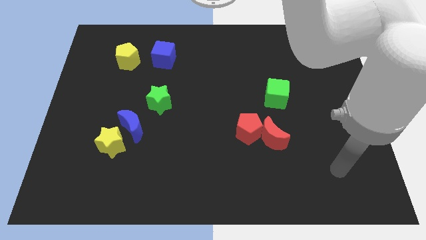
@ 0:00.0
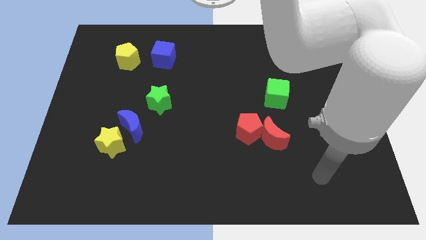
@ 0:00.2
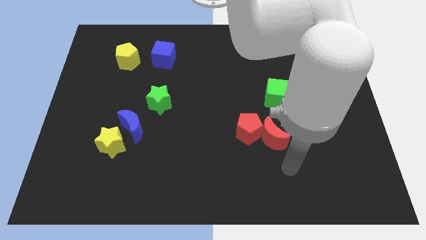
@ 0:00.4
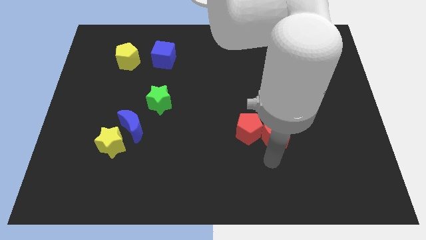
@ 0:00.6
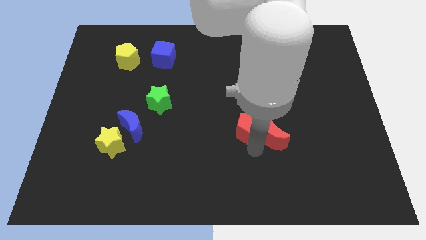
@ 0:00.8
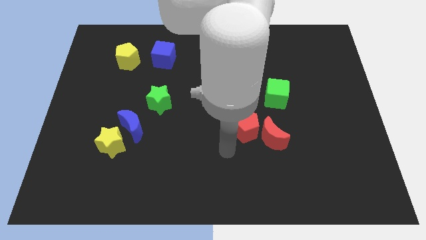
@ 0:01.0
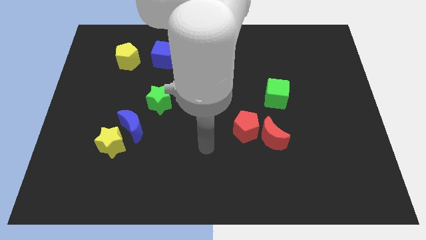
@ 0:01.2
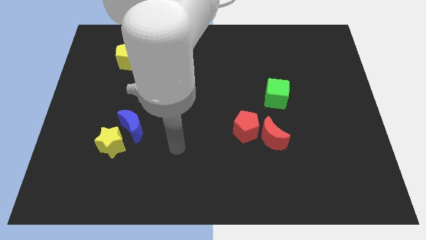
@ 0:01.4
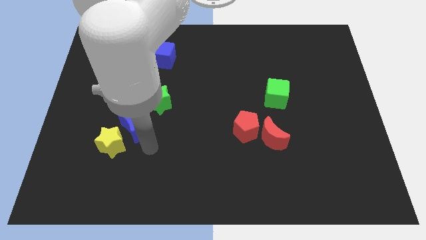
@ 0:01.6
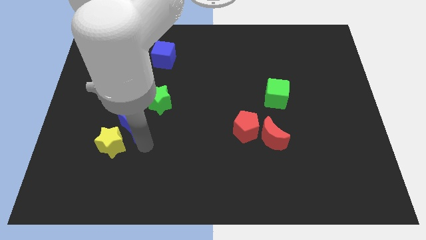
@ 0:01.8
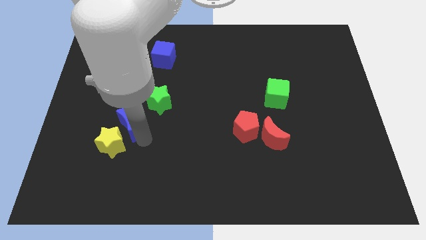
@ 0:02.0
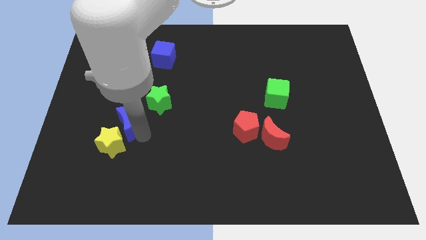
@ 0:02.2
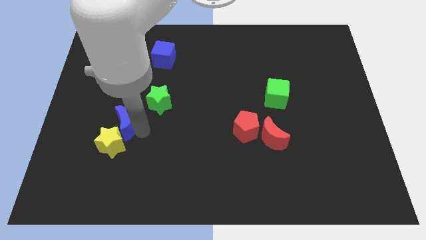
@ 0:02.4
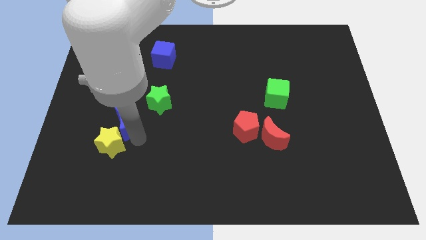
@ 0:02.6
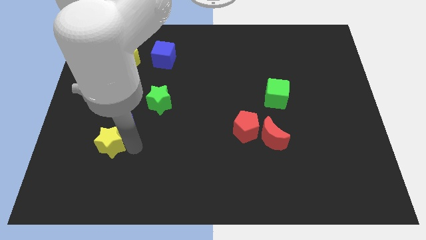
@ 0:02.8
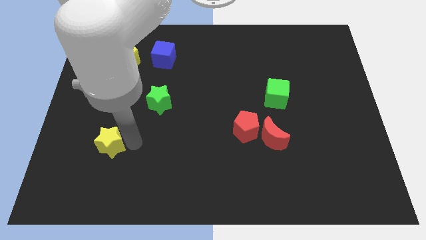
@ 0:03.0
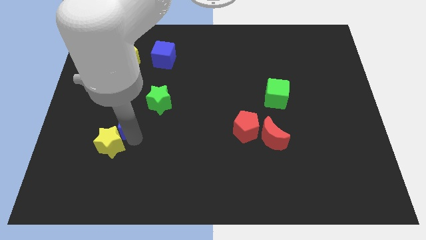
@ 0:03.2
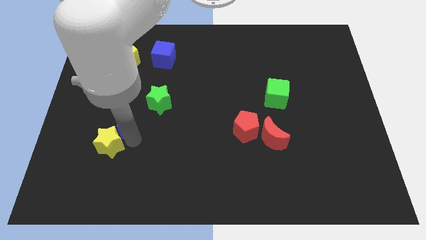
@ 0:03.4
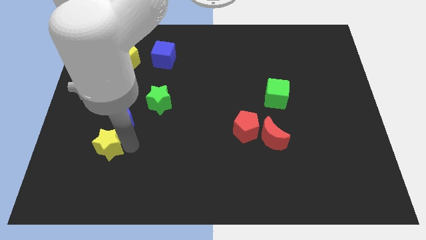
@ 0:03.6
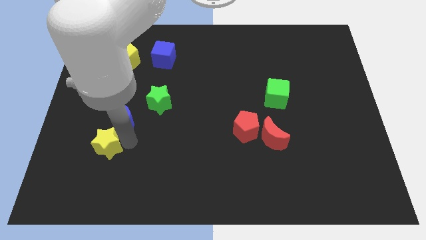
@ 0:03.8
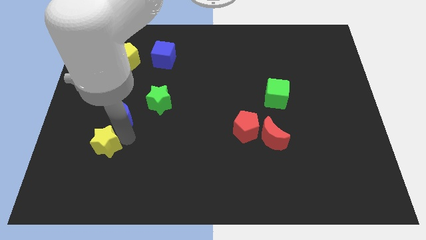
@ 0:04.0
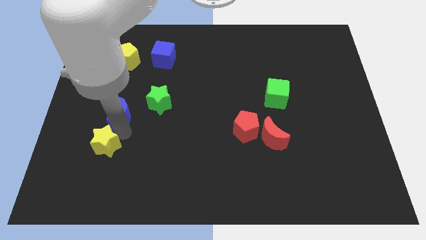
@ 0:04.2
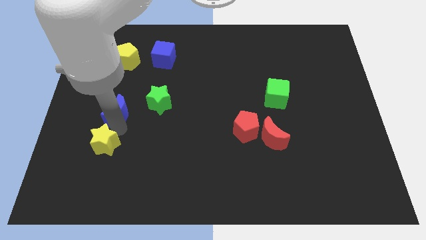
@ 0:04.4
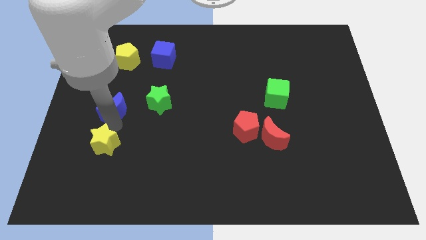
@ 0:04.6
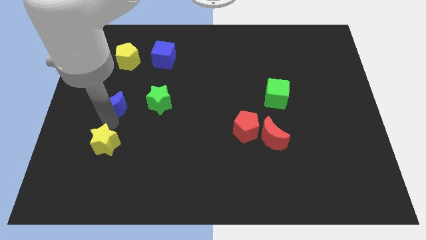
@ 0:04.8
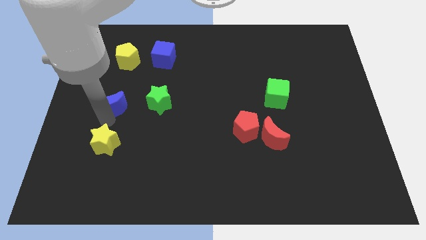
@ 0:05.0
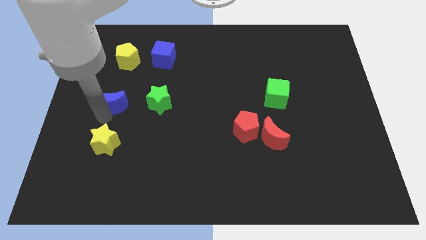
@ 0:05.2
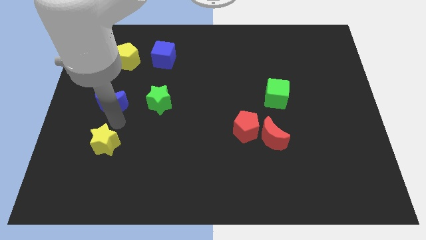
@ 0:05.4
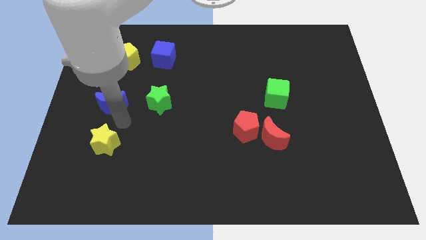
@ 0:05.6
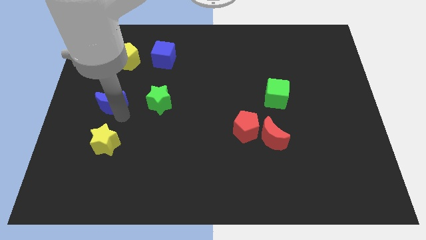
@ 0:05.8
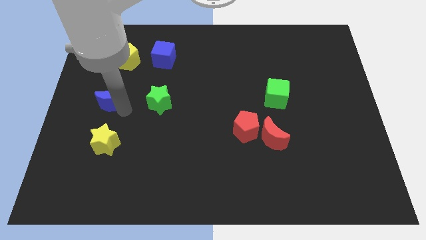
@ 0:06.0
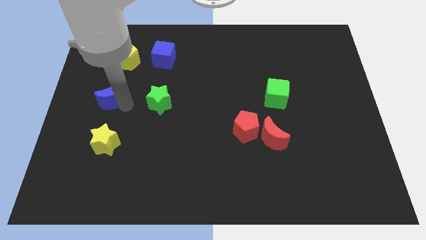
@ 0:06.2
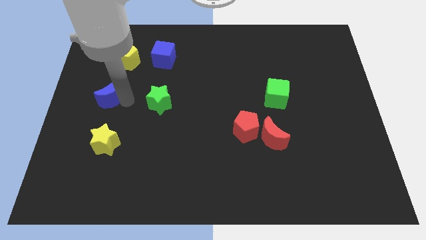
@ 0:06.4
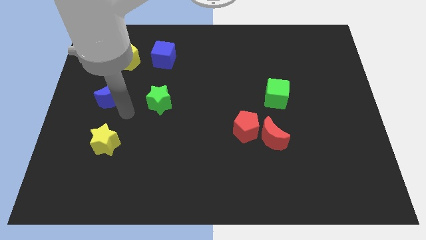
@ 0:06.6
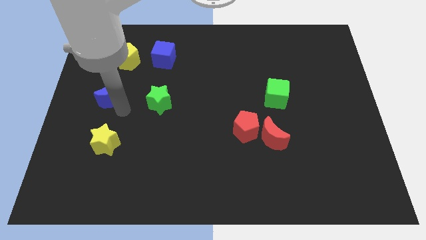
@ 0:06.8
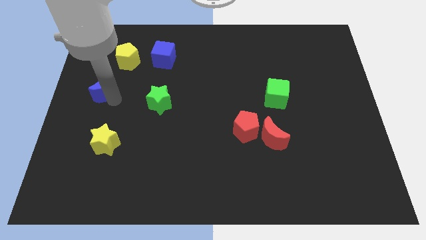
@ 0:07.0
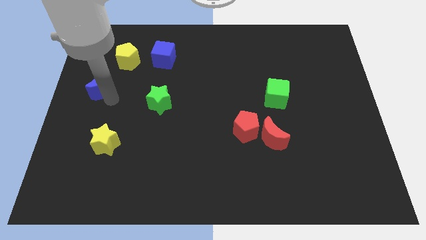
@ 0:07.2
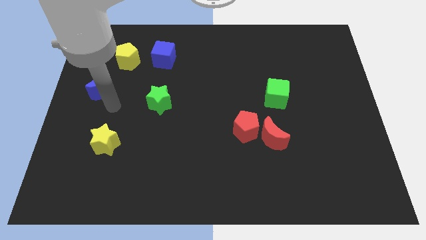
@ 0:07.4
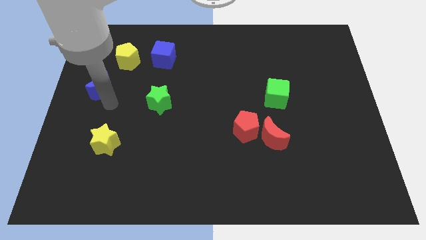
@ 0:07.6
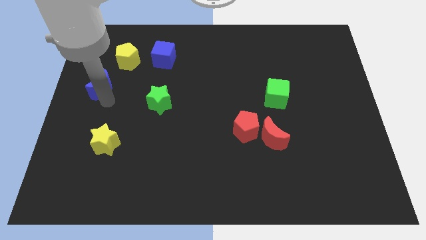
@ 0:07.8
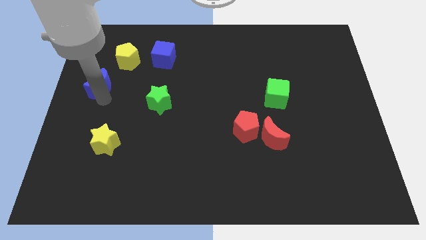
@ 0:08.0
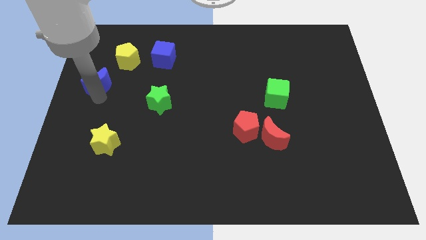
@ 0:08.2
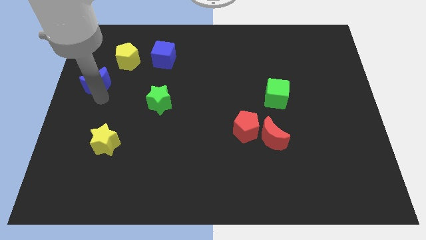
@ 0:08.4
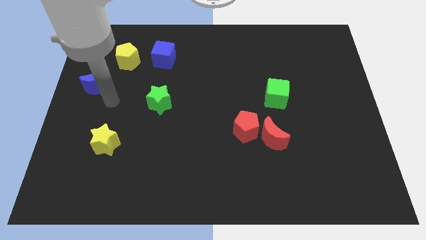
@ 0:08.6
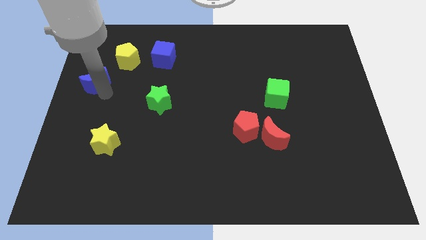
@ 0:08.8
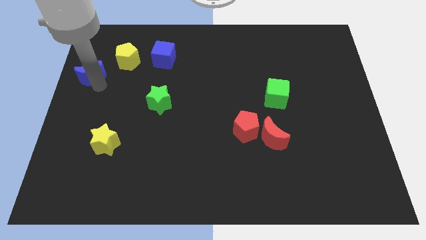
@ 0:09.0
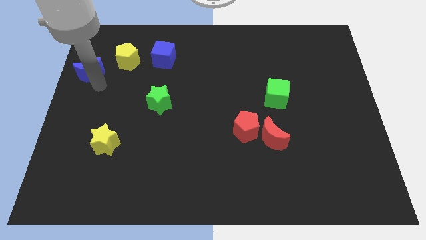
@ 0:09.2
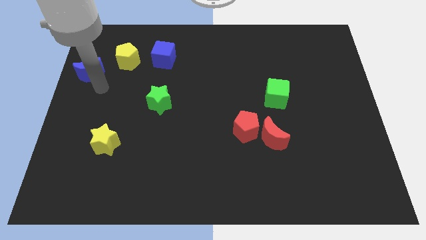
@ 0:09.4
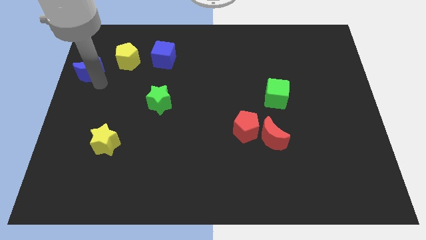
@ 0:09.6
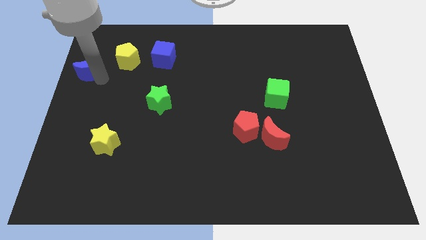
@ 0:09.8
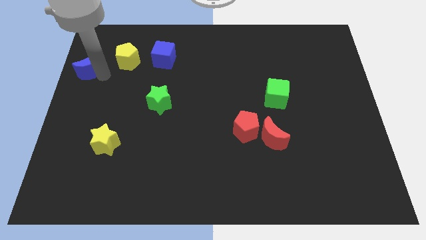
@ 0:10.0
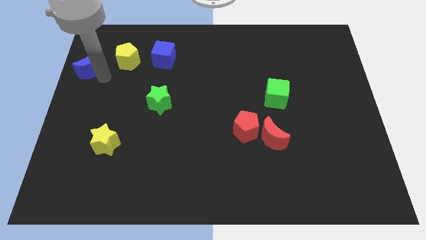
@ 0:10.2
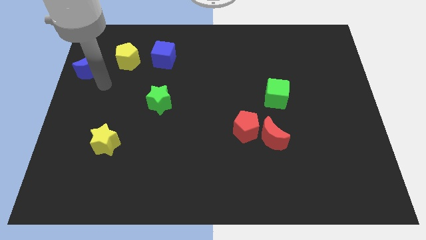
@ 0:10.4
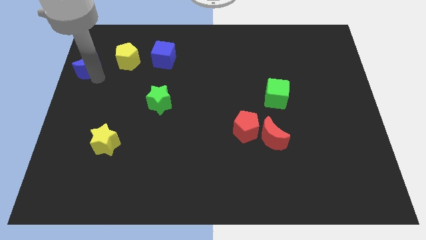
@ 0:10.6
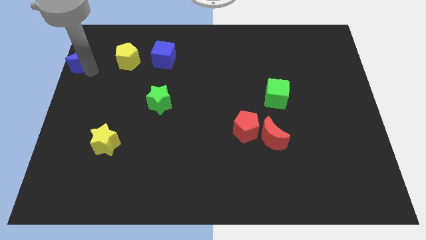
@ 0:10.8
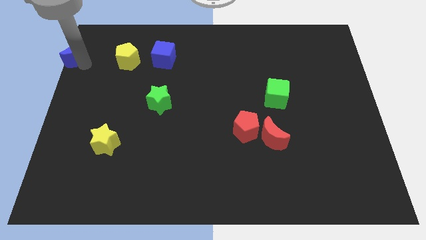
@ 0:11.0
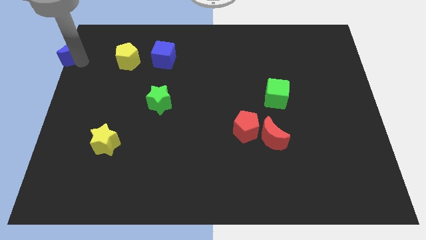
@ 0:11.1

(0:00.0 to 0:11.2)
slide the blue moon to the upper left corner

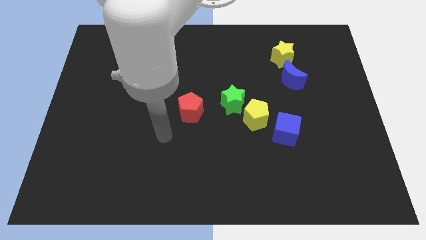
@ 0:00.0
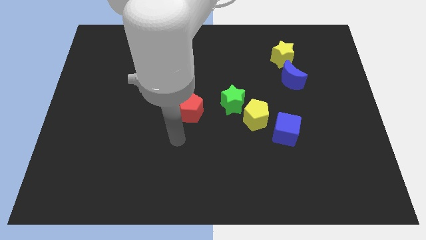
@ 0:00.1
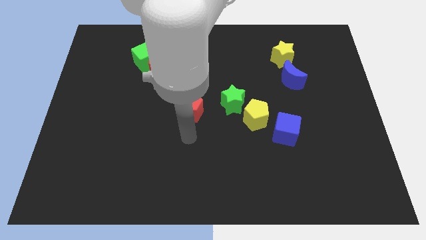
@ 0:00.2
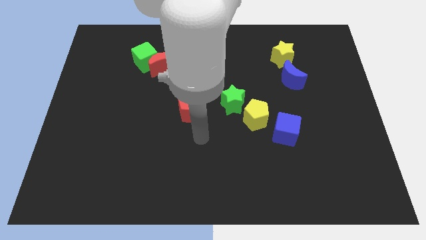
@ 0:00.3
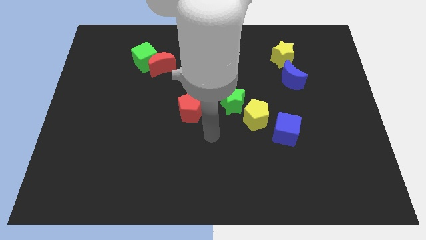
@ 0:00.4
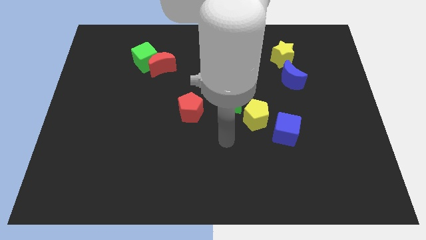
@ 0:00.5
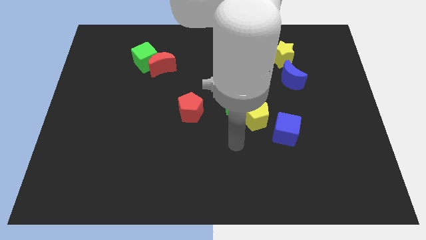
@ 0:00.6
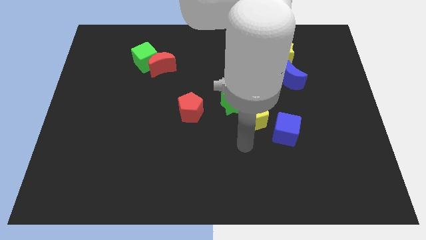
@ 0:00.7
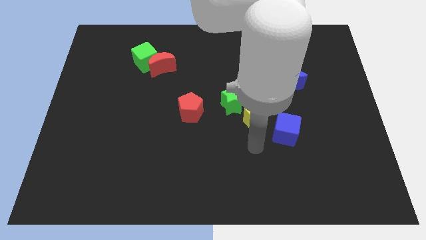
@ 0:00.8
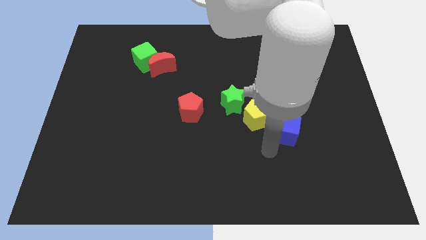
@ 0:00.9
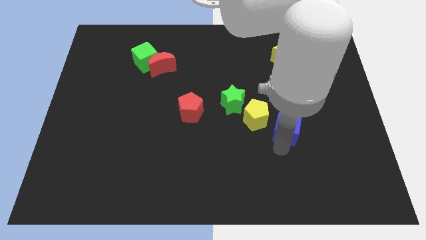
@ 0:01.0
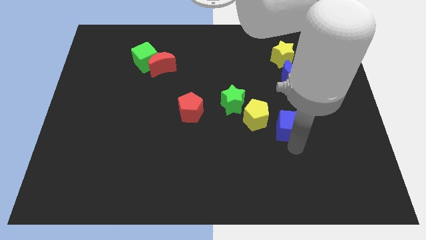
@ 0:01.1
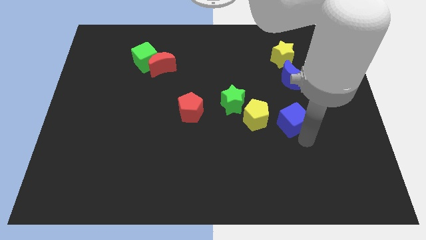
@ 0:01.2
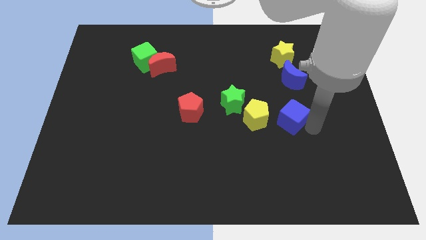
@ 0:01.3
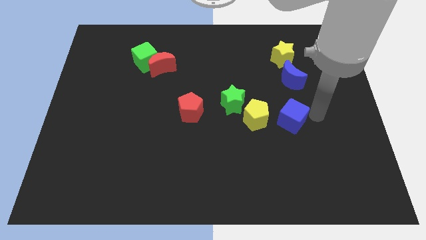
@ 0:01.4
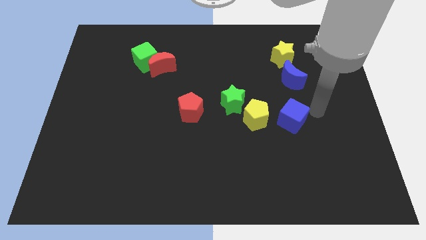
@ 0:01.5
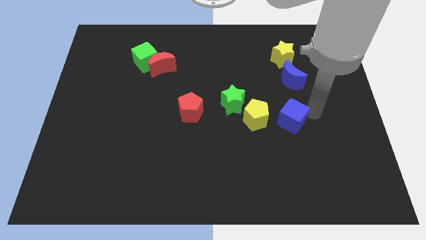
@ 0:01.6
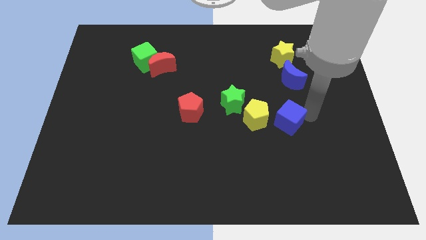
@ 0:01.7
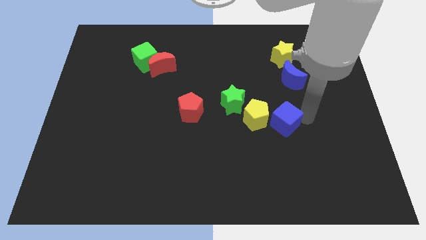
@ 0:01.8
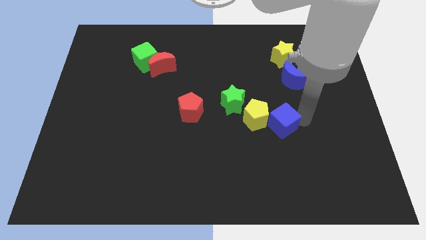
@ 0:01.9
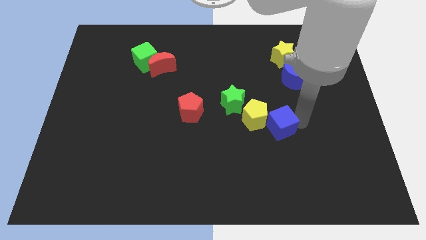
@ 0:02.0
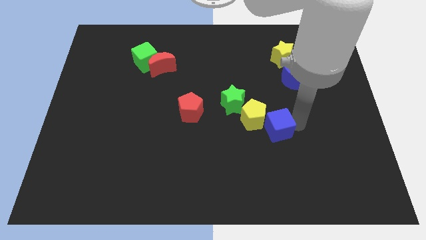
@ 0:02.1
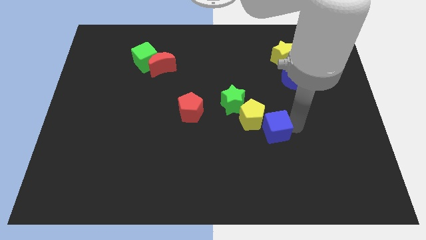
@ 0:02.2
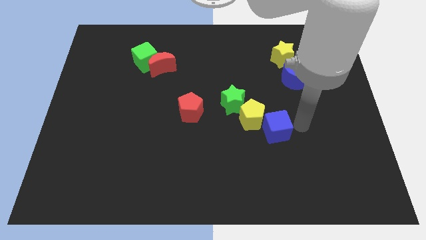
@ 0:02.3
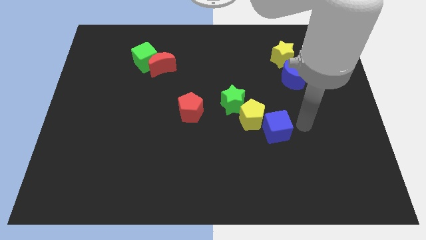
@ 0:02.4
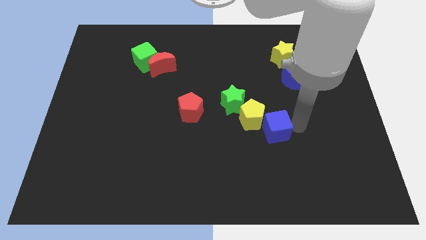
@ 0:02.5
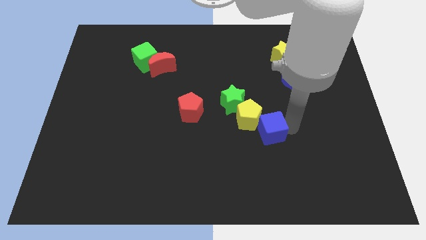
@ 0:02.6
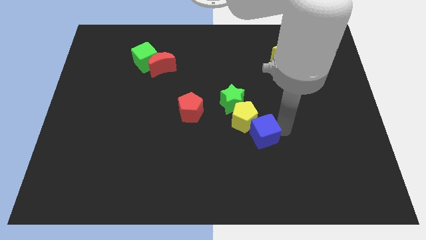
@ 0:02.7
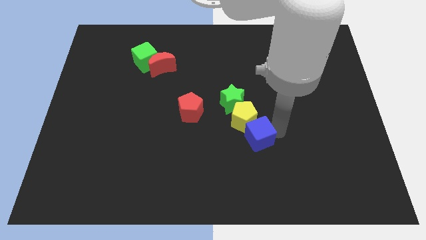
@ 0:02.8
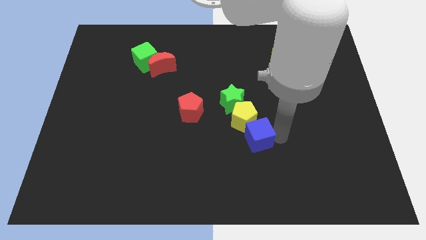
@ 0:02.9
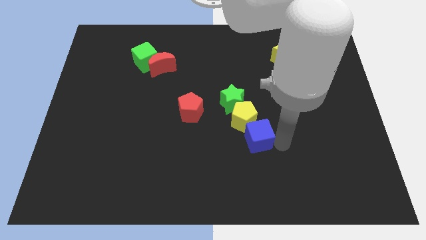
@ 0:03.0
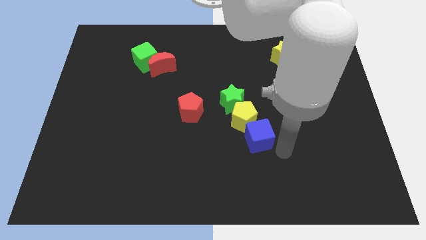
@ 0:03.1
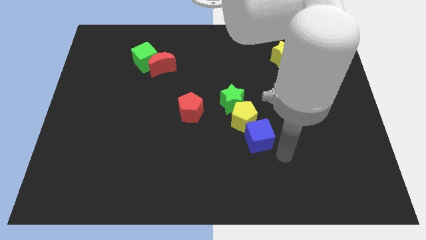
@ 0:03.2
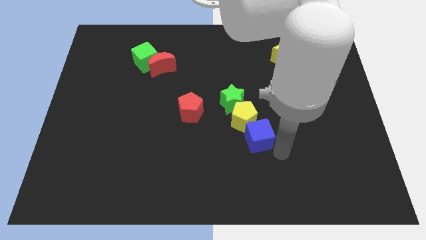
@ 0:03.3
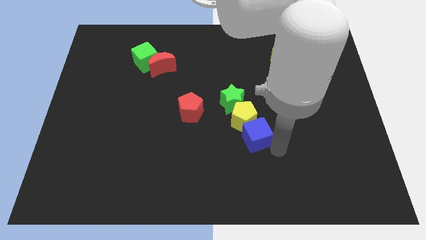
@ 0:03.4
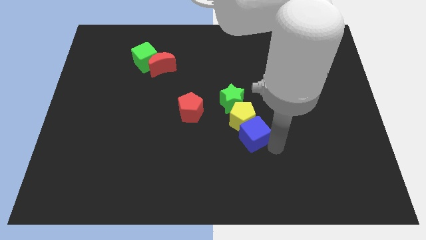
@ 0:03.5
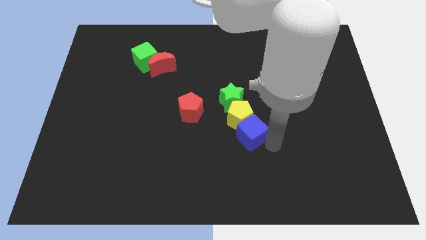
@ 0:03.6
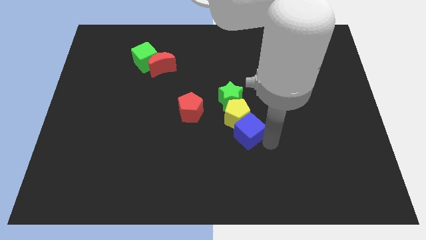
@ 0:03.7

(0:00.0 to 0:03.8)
push the blue cube to the center
